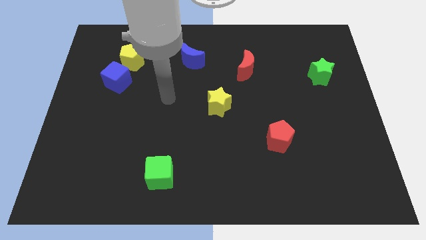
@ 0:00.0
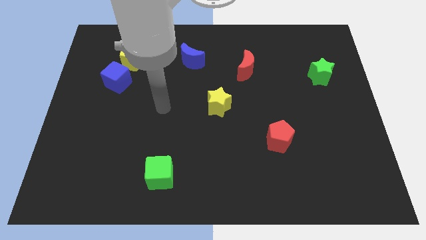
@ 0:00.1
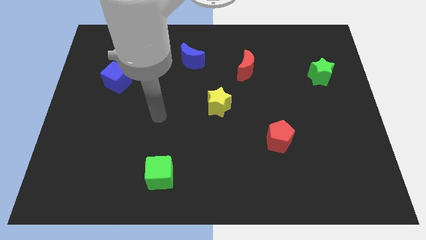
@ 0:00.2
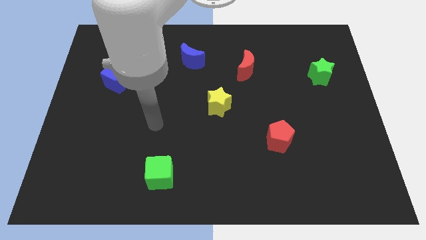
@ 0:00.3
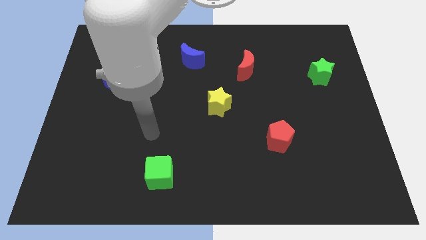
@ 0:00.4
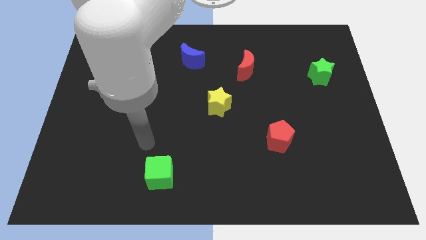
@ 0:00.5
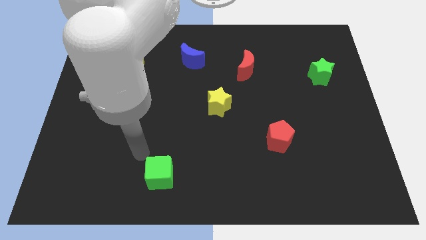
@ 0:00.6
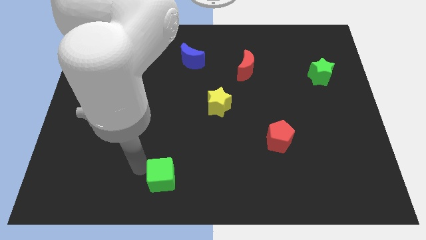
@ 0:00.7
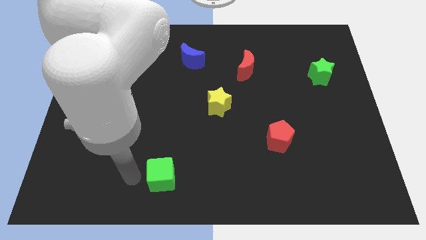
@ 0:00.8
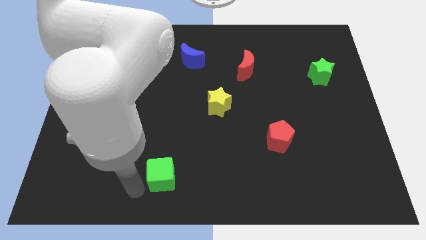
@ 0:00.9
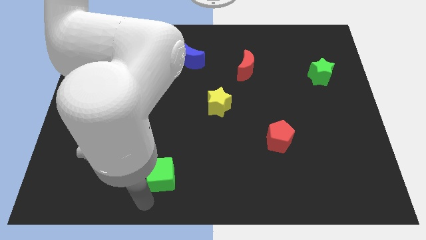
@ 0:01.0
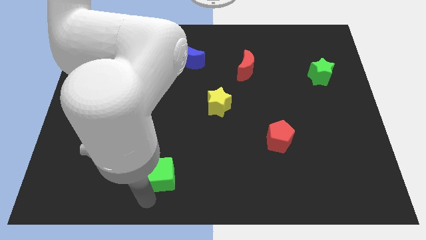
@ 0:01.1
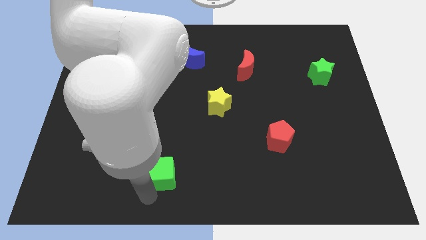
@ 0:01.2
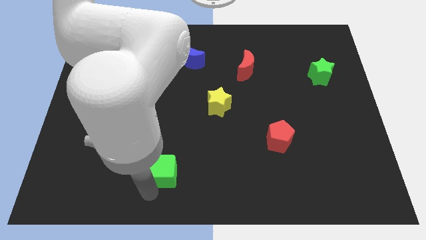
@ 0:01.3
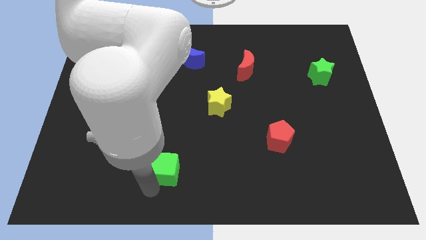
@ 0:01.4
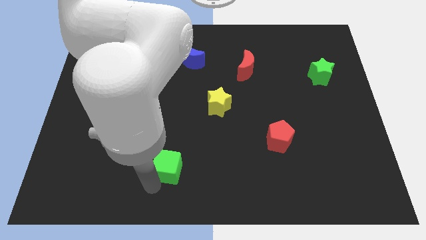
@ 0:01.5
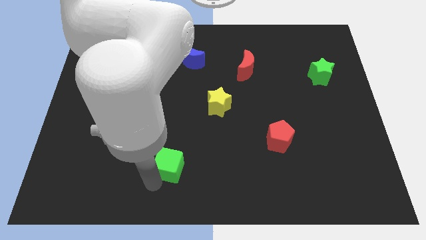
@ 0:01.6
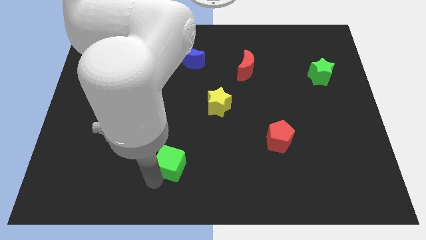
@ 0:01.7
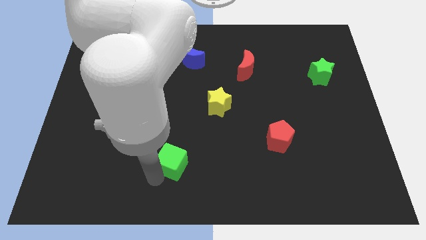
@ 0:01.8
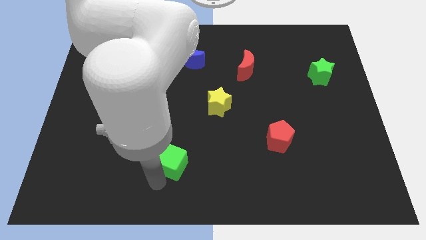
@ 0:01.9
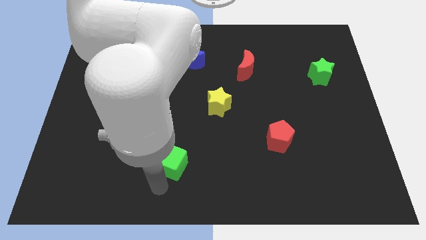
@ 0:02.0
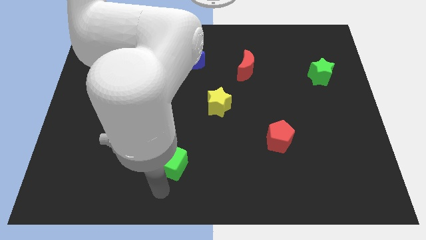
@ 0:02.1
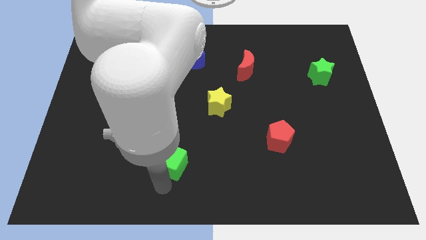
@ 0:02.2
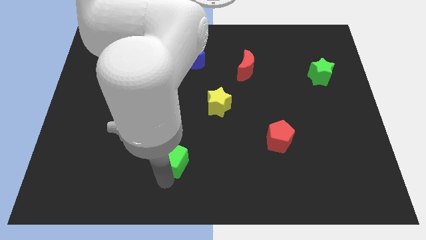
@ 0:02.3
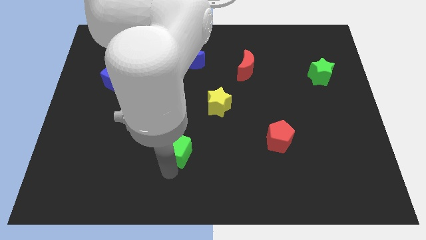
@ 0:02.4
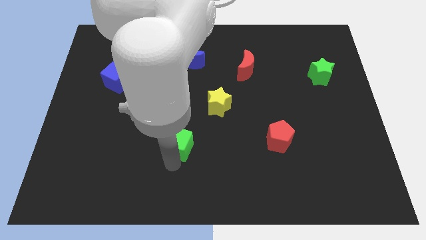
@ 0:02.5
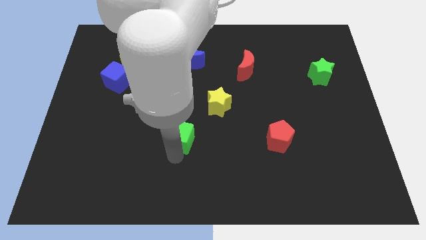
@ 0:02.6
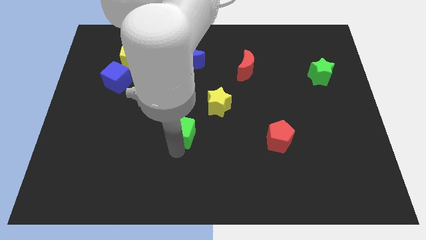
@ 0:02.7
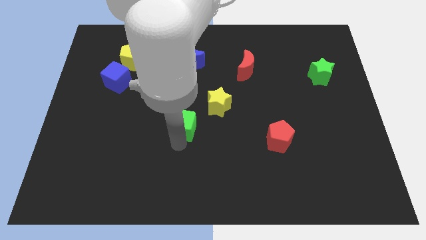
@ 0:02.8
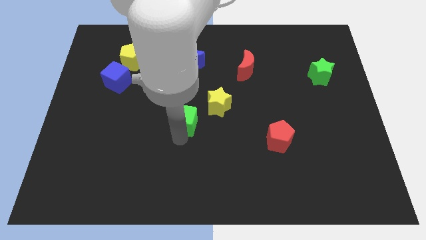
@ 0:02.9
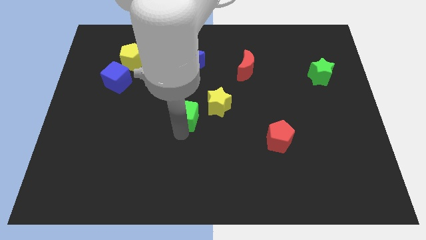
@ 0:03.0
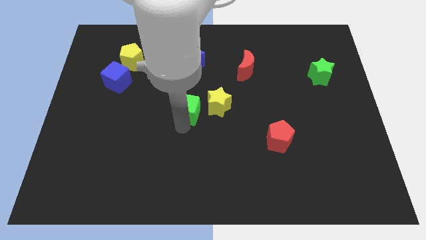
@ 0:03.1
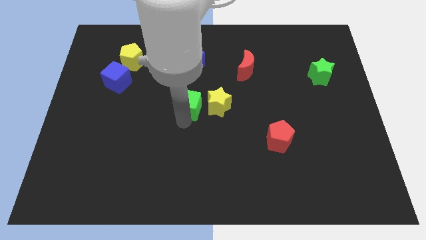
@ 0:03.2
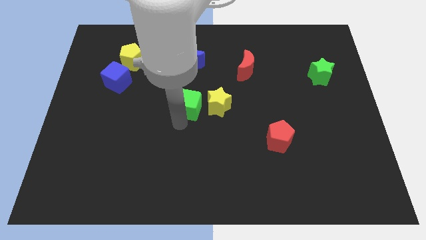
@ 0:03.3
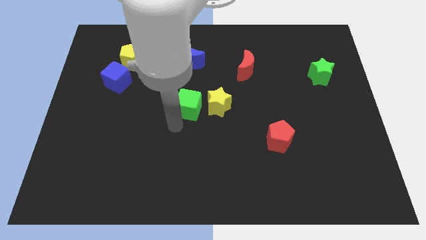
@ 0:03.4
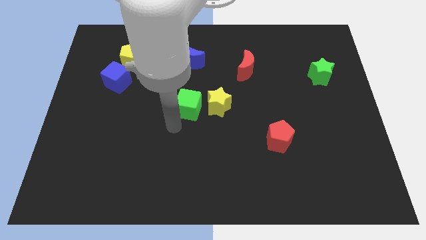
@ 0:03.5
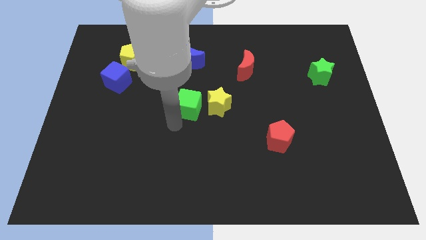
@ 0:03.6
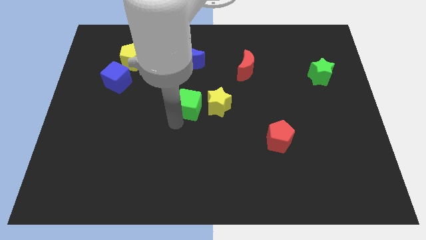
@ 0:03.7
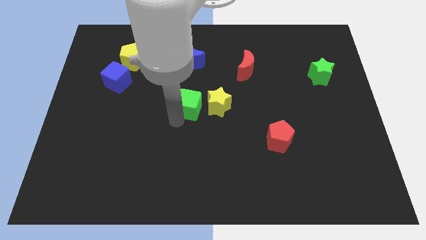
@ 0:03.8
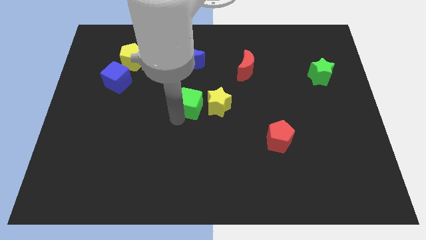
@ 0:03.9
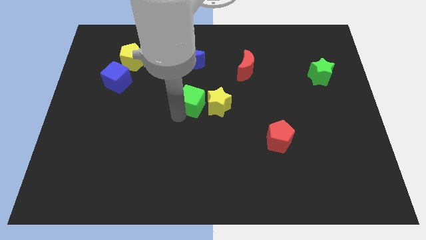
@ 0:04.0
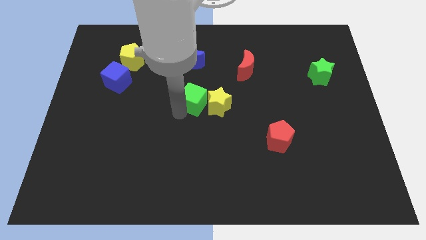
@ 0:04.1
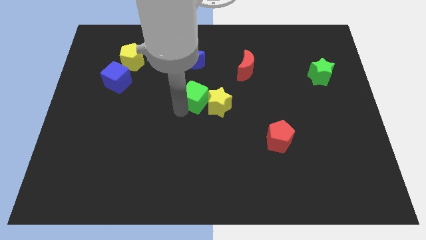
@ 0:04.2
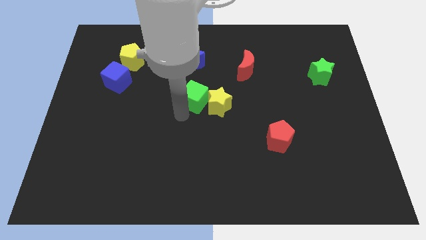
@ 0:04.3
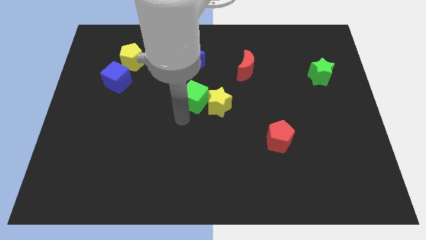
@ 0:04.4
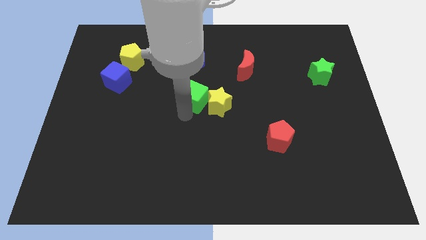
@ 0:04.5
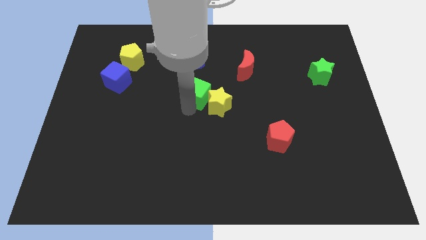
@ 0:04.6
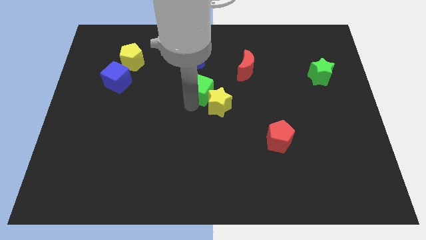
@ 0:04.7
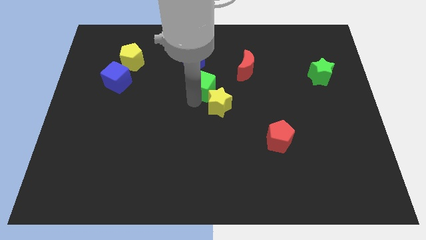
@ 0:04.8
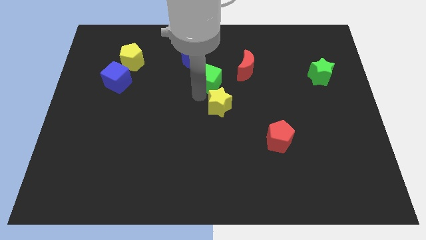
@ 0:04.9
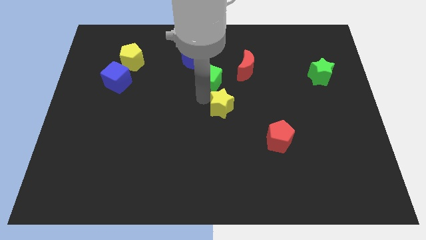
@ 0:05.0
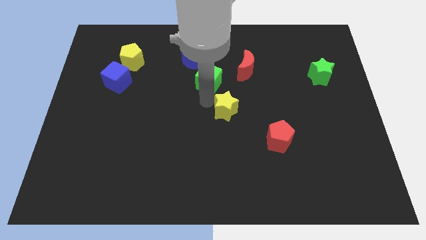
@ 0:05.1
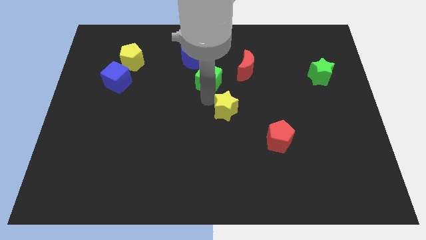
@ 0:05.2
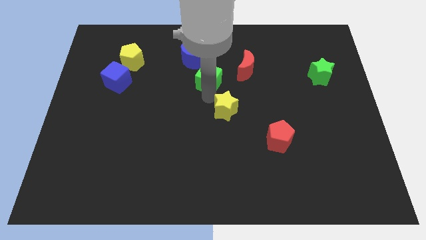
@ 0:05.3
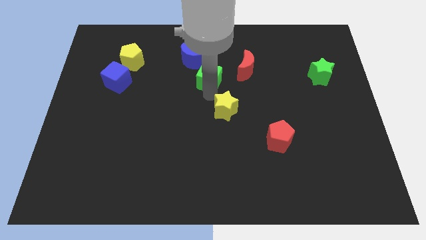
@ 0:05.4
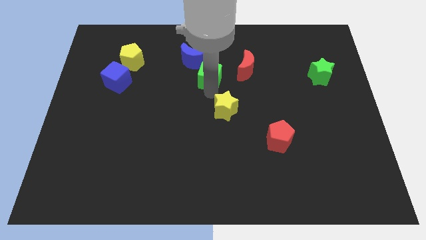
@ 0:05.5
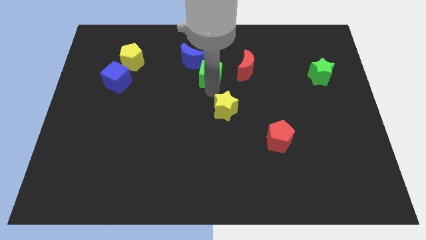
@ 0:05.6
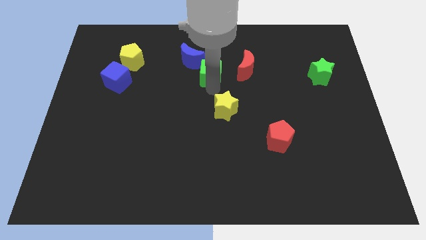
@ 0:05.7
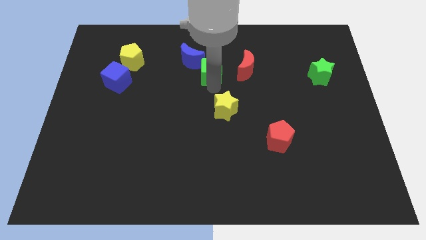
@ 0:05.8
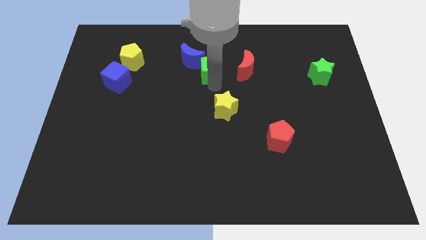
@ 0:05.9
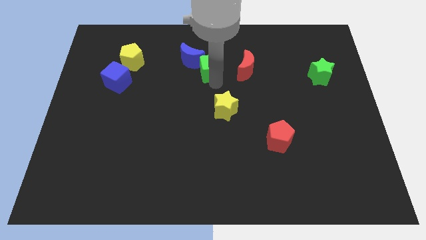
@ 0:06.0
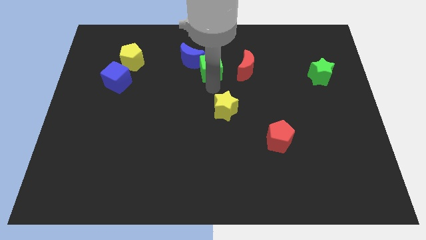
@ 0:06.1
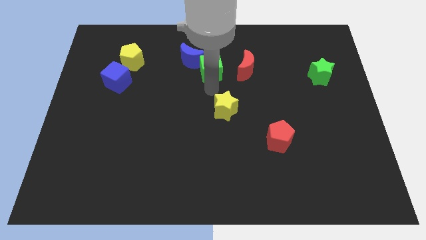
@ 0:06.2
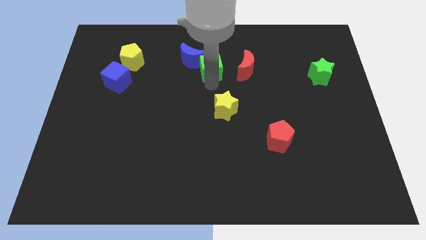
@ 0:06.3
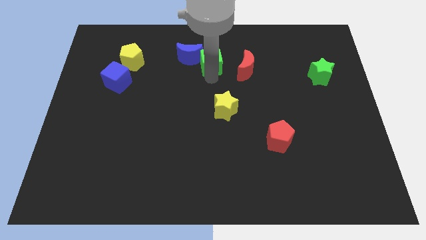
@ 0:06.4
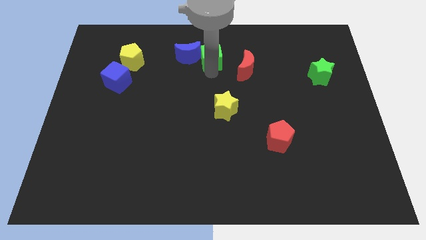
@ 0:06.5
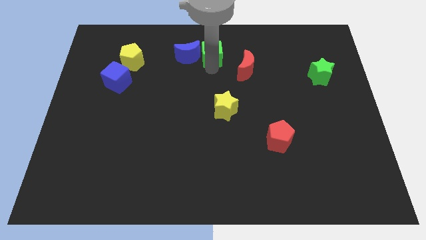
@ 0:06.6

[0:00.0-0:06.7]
move the green cube to the top

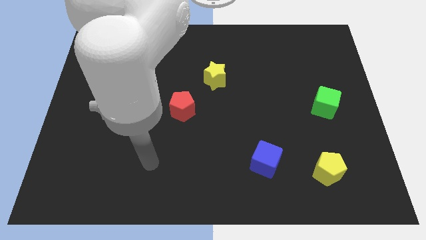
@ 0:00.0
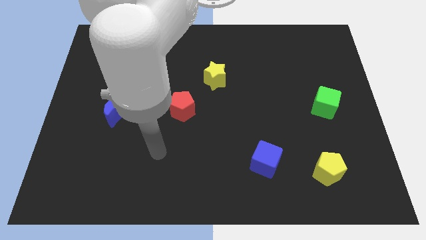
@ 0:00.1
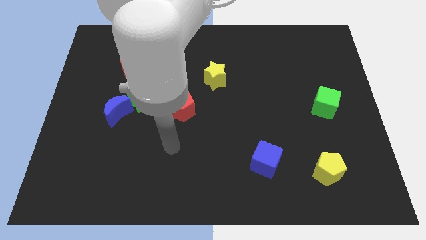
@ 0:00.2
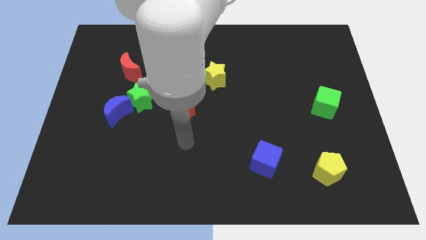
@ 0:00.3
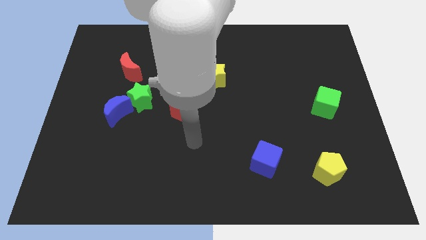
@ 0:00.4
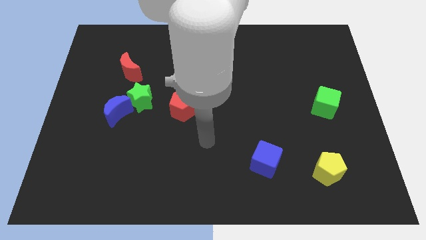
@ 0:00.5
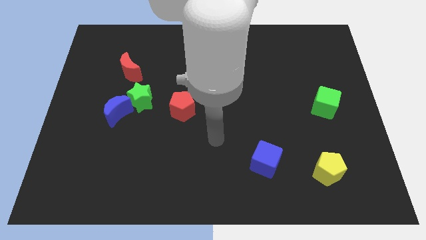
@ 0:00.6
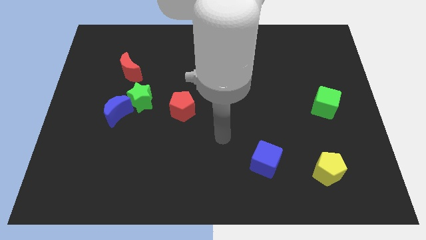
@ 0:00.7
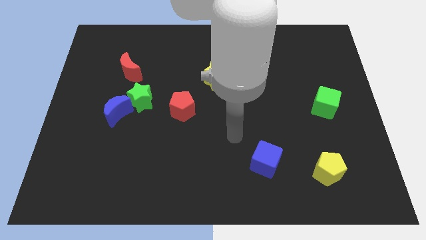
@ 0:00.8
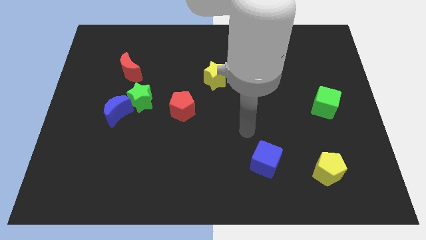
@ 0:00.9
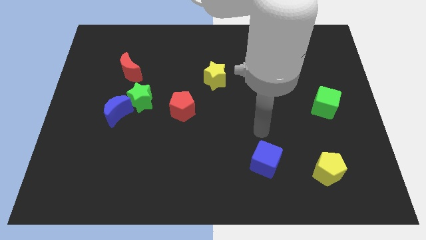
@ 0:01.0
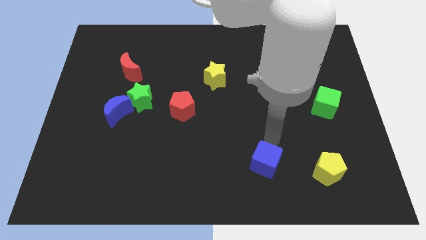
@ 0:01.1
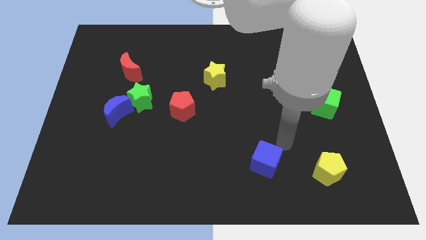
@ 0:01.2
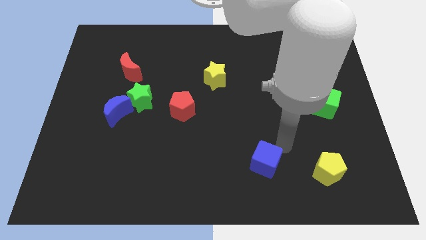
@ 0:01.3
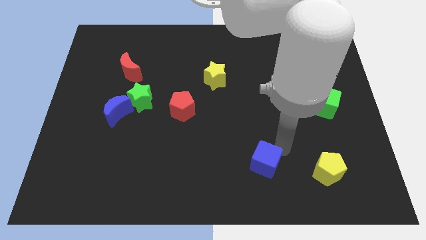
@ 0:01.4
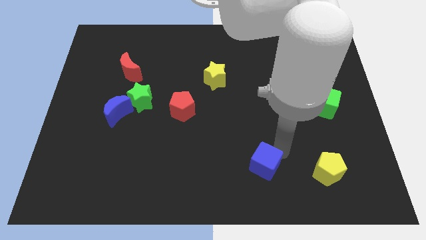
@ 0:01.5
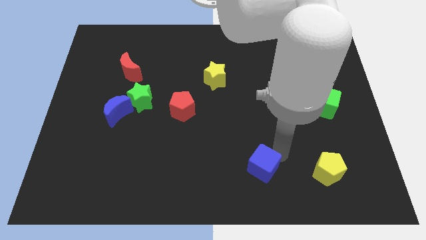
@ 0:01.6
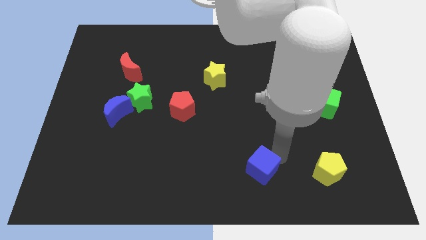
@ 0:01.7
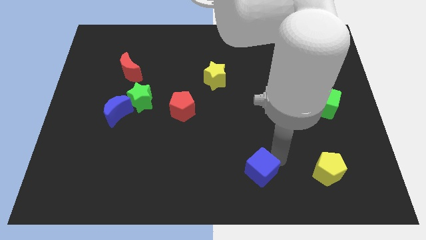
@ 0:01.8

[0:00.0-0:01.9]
push the blue cube to the bottom side
